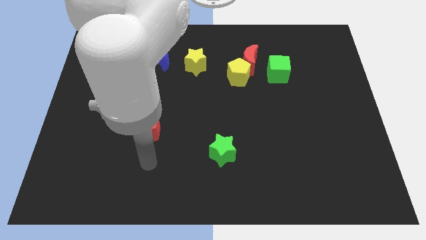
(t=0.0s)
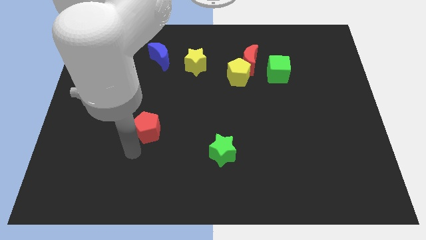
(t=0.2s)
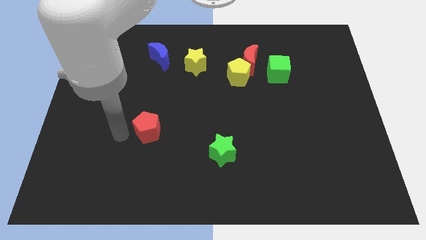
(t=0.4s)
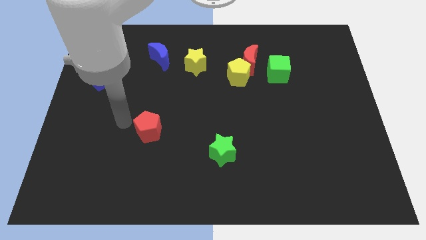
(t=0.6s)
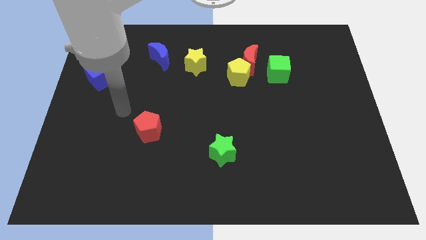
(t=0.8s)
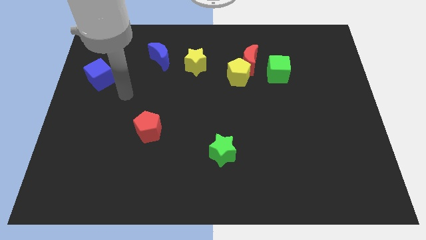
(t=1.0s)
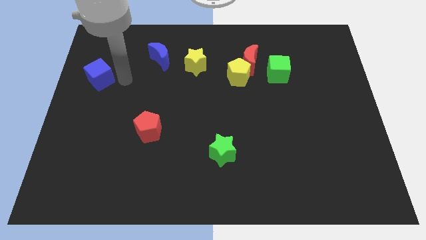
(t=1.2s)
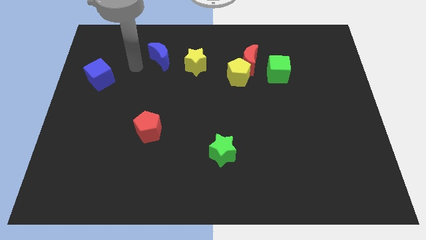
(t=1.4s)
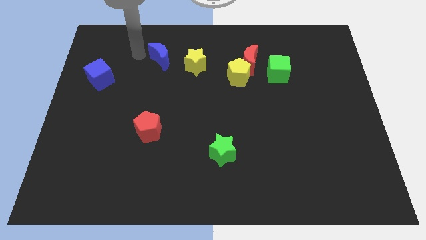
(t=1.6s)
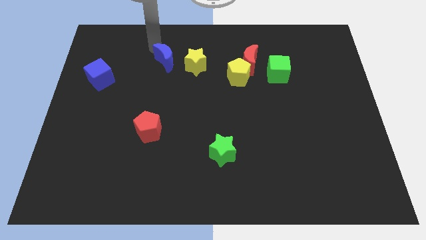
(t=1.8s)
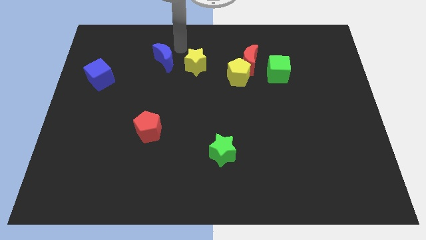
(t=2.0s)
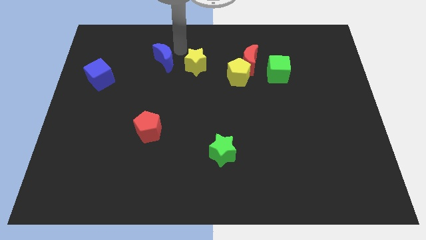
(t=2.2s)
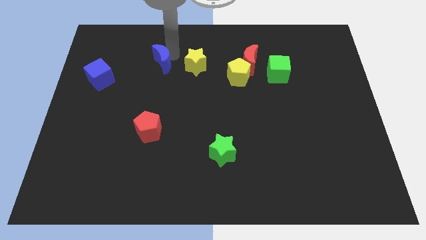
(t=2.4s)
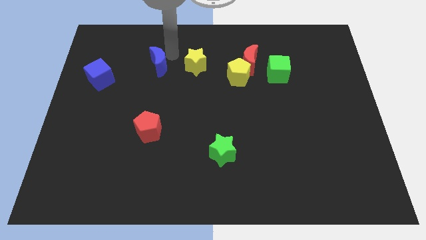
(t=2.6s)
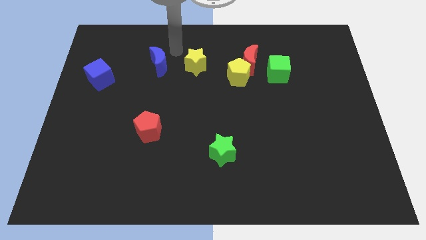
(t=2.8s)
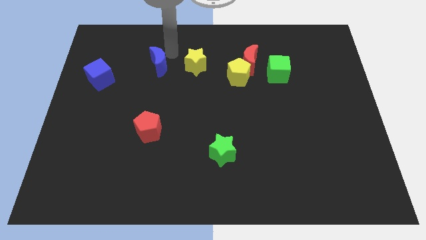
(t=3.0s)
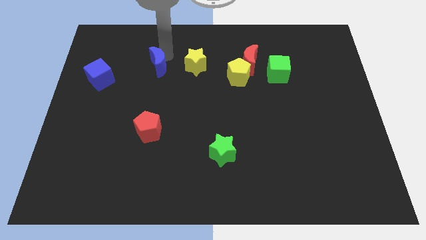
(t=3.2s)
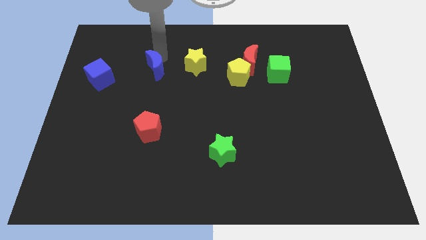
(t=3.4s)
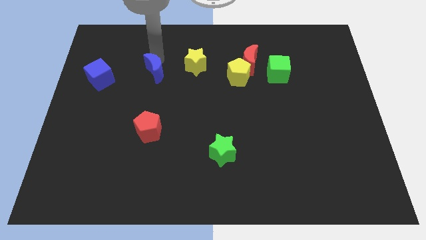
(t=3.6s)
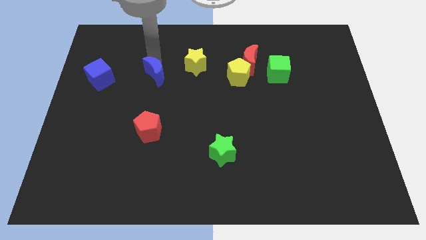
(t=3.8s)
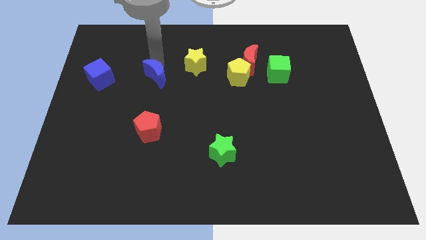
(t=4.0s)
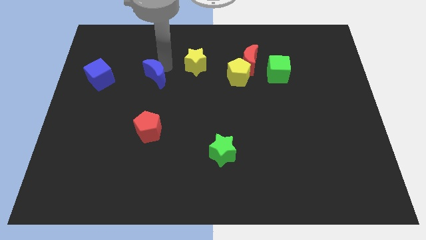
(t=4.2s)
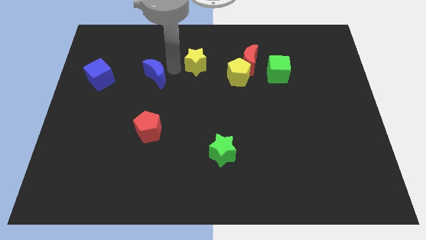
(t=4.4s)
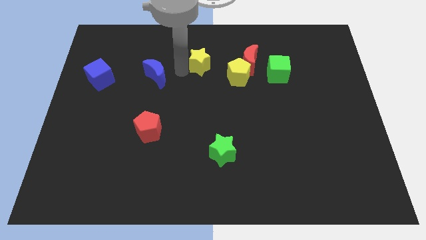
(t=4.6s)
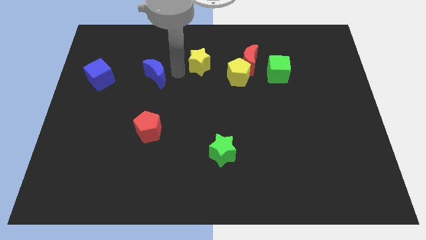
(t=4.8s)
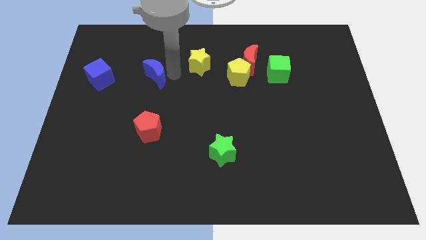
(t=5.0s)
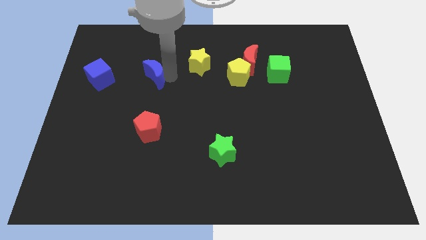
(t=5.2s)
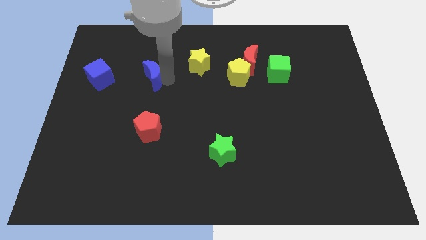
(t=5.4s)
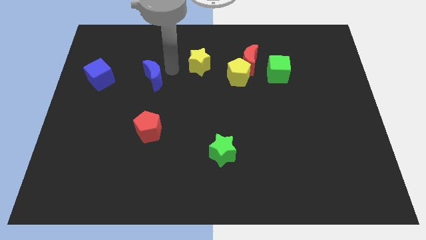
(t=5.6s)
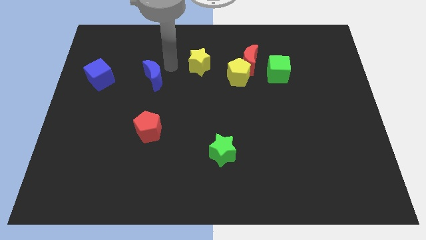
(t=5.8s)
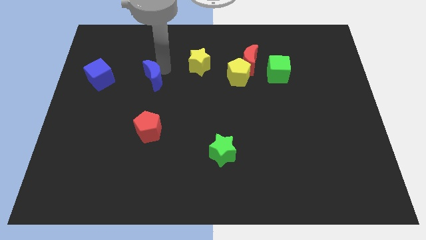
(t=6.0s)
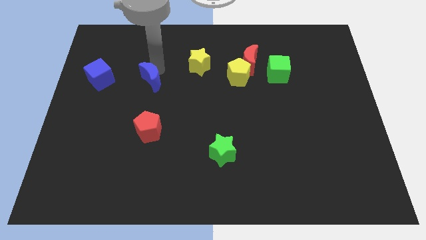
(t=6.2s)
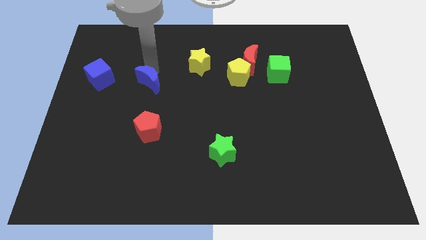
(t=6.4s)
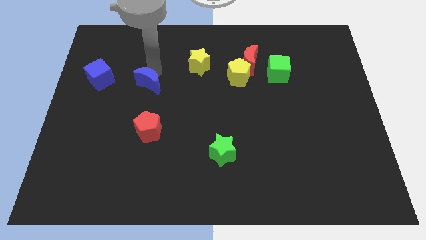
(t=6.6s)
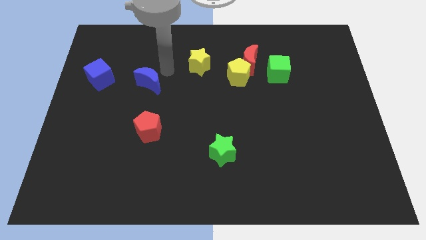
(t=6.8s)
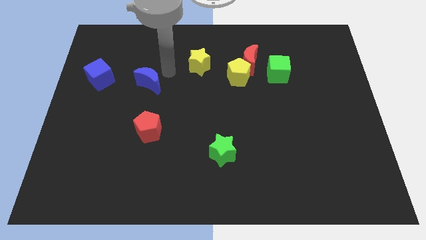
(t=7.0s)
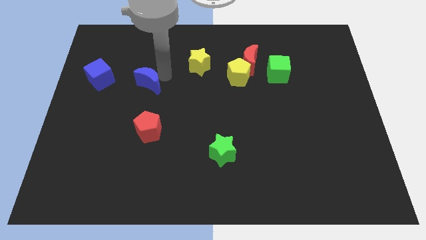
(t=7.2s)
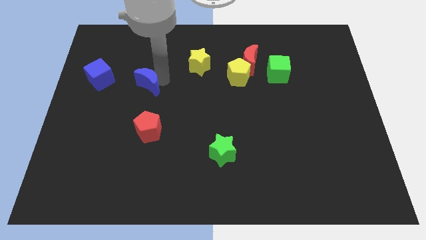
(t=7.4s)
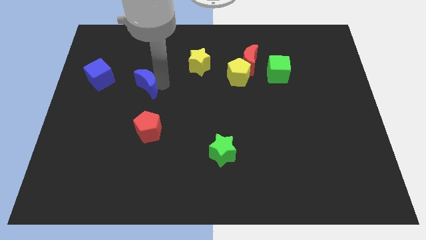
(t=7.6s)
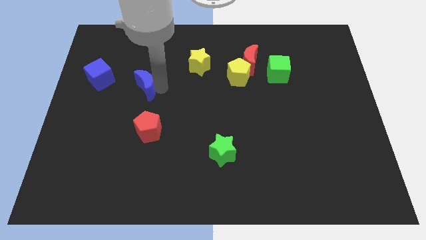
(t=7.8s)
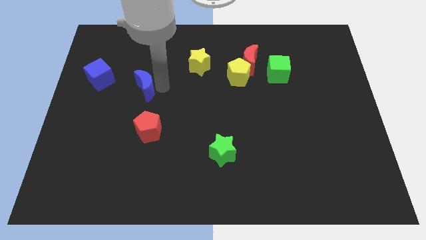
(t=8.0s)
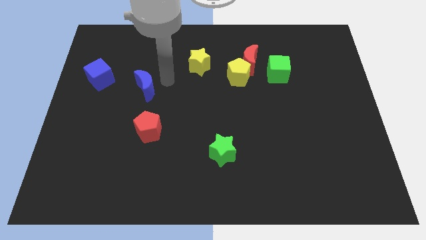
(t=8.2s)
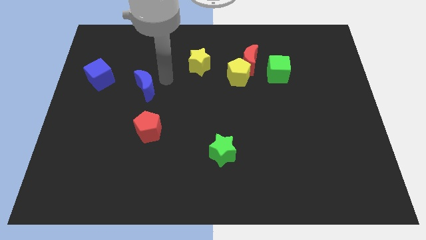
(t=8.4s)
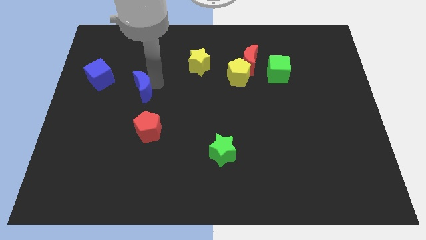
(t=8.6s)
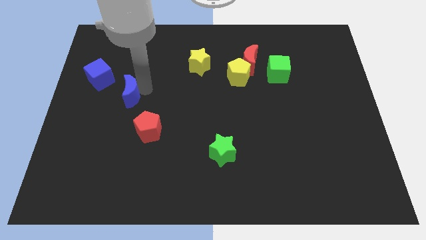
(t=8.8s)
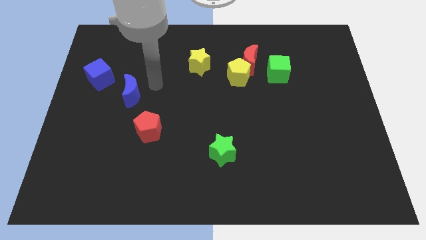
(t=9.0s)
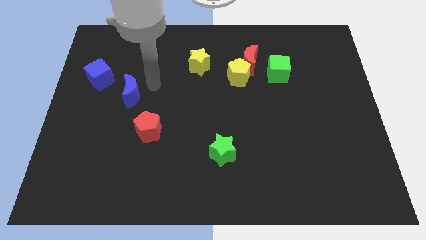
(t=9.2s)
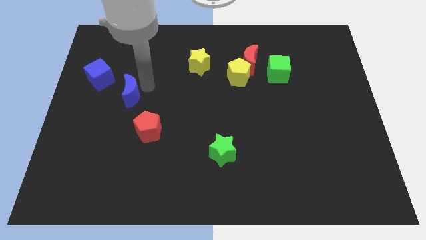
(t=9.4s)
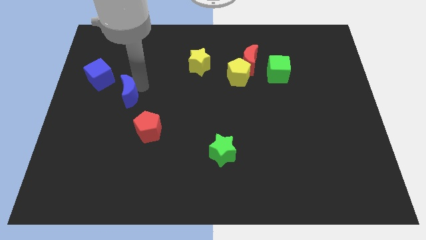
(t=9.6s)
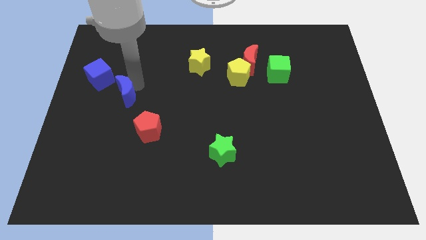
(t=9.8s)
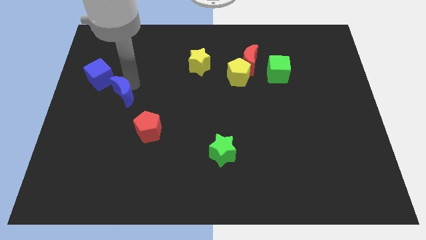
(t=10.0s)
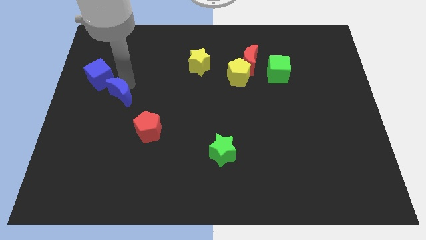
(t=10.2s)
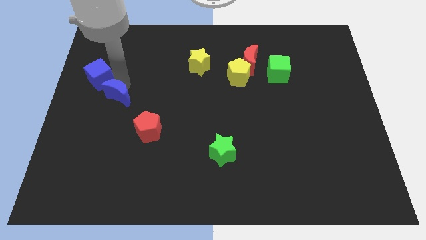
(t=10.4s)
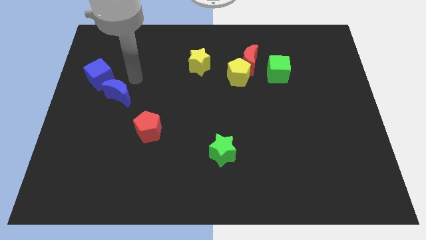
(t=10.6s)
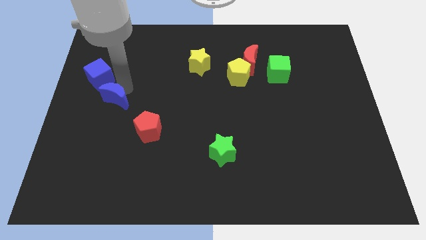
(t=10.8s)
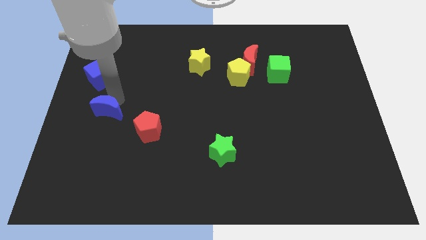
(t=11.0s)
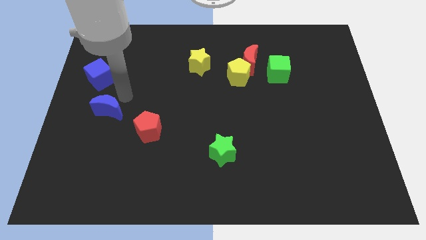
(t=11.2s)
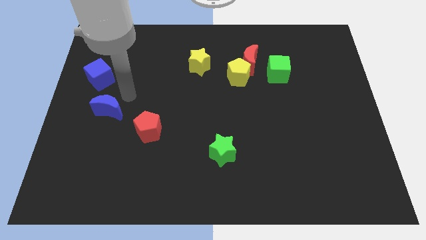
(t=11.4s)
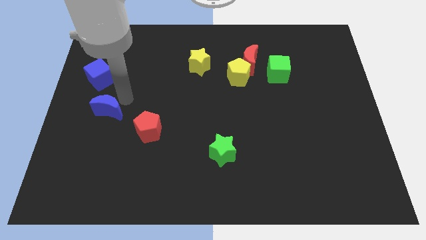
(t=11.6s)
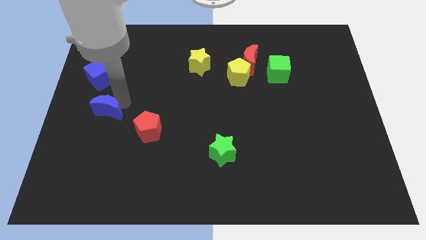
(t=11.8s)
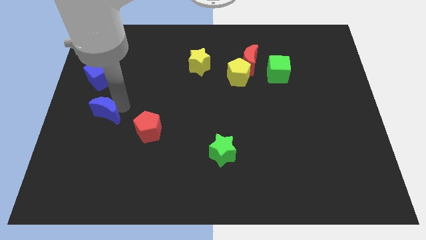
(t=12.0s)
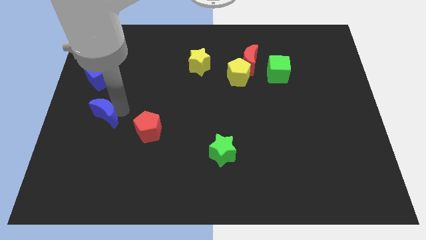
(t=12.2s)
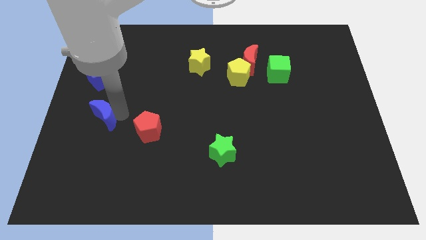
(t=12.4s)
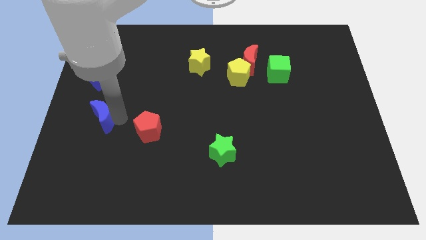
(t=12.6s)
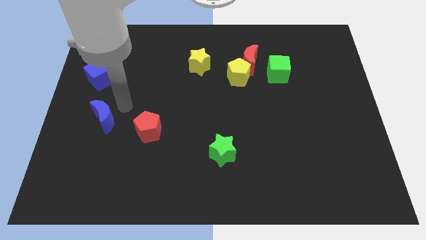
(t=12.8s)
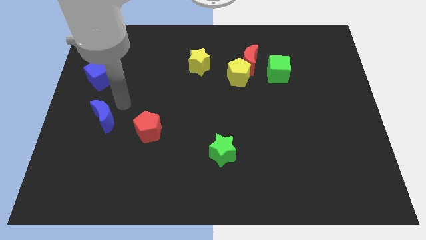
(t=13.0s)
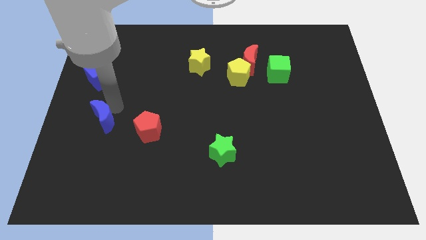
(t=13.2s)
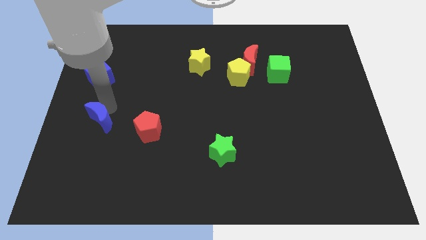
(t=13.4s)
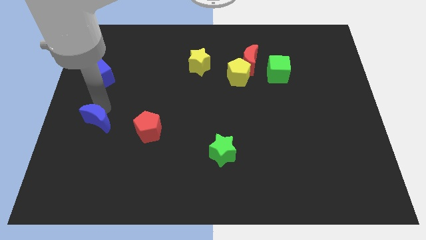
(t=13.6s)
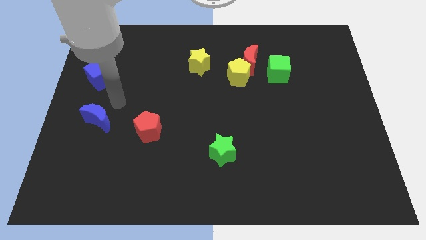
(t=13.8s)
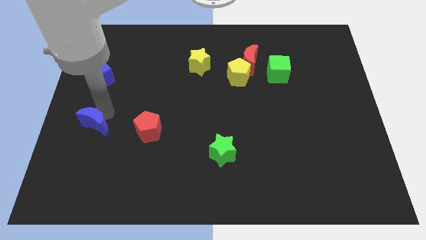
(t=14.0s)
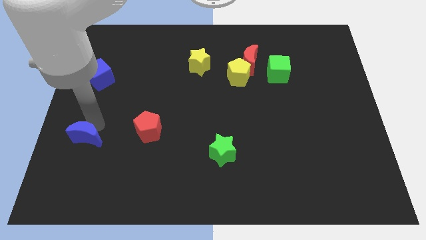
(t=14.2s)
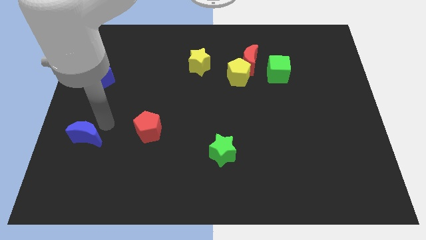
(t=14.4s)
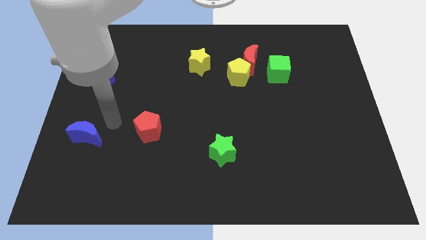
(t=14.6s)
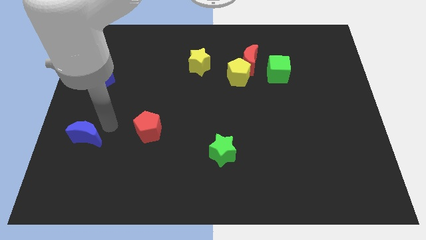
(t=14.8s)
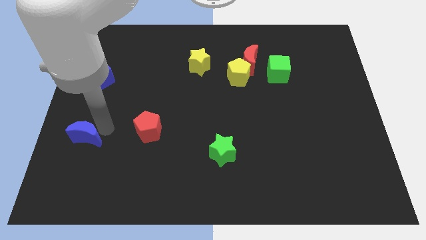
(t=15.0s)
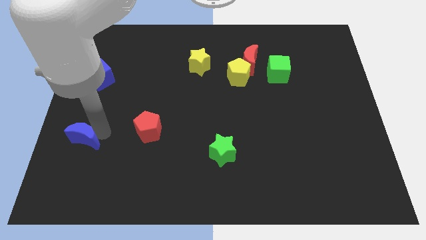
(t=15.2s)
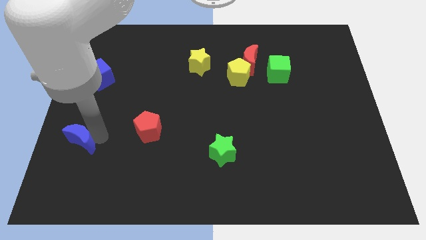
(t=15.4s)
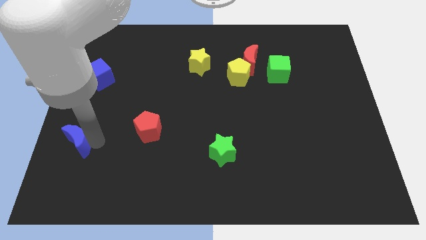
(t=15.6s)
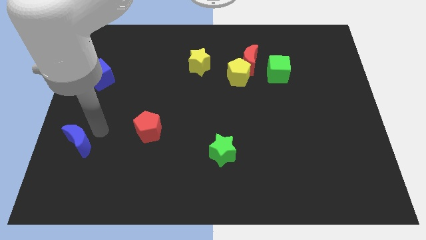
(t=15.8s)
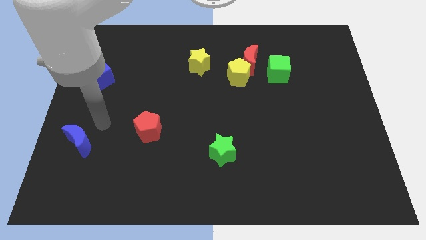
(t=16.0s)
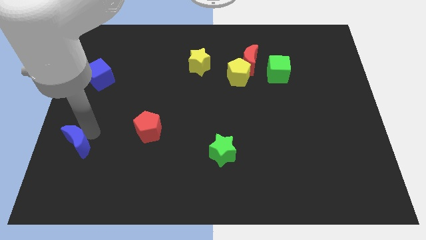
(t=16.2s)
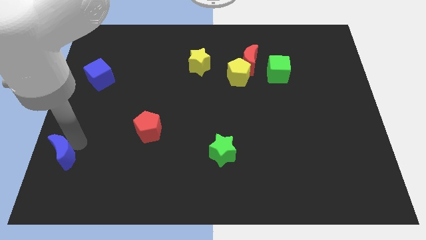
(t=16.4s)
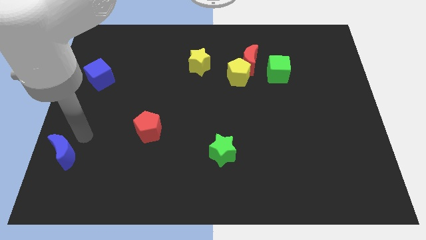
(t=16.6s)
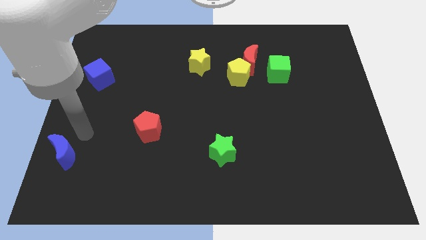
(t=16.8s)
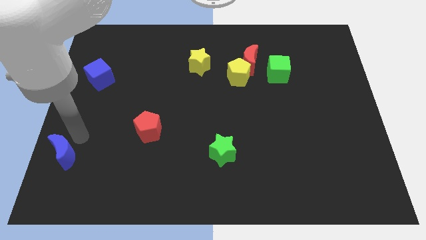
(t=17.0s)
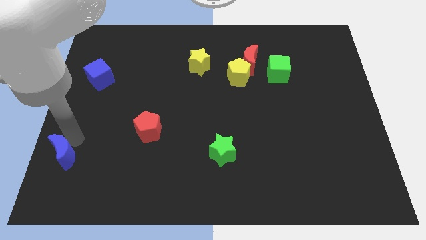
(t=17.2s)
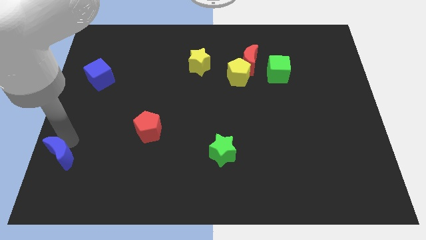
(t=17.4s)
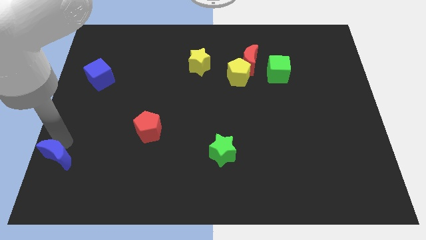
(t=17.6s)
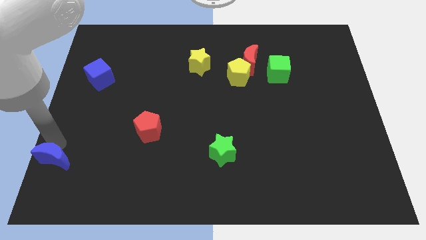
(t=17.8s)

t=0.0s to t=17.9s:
move the blue moon to the bottom left of the board
